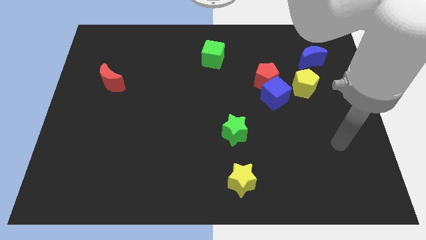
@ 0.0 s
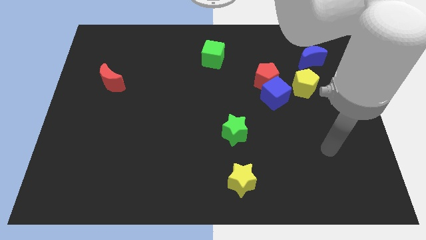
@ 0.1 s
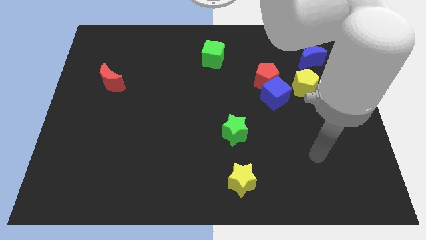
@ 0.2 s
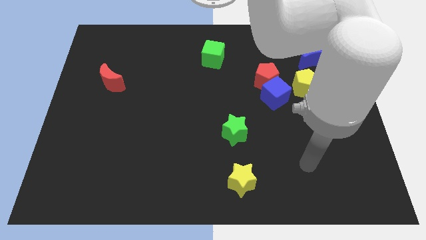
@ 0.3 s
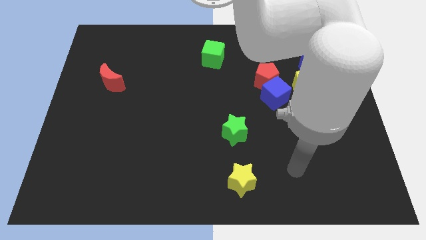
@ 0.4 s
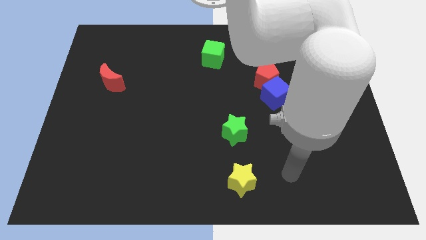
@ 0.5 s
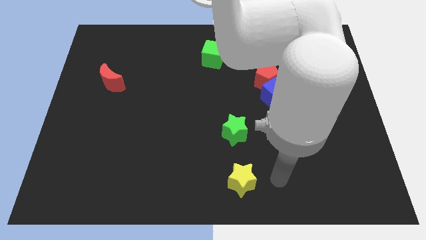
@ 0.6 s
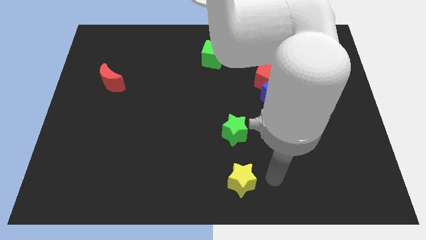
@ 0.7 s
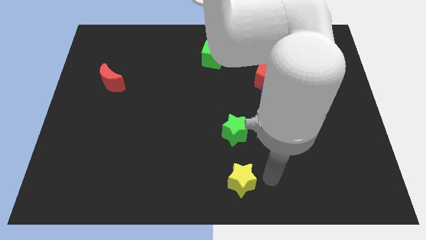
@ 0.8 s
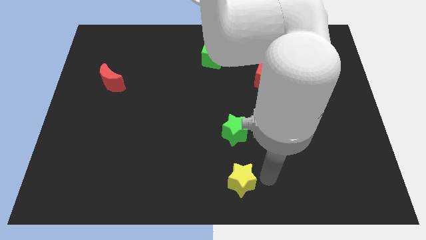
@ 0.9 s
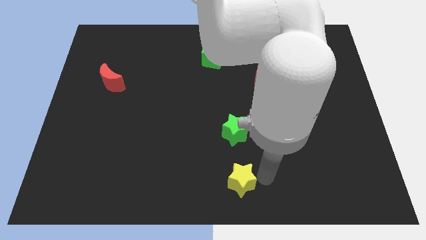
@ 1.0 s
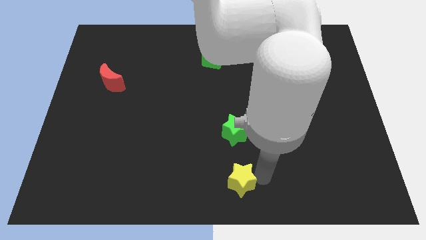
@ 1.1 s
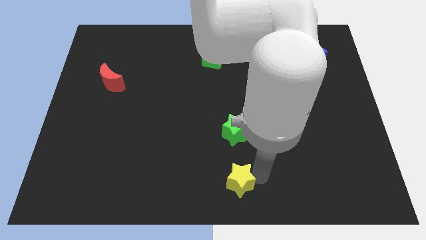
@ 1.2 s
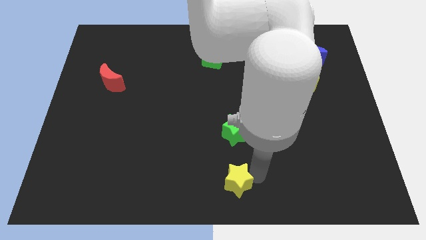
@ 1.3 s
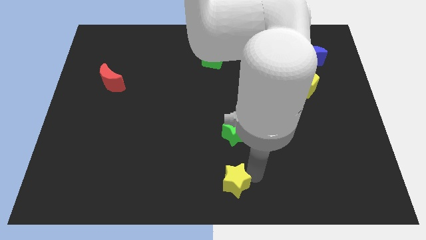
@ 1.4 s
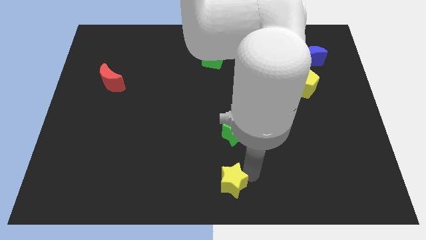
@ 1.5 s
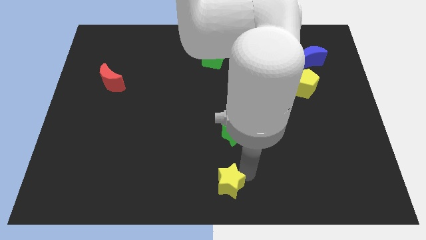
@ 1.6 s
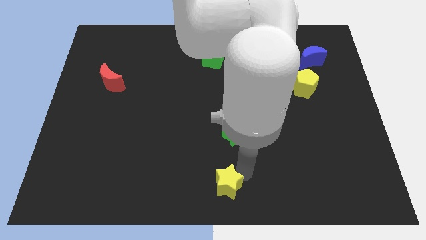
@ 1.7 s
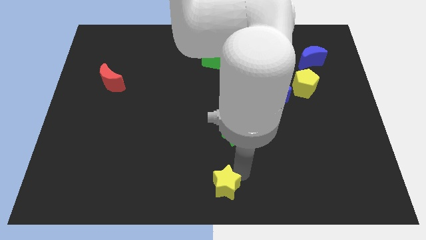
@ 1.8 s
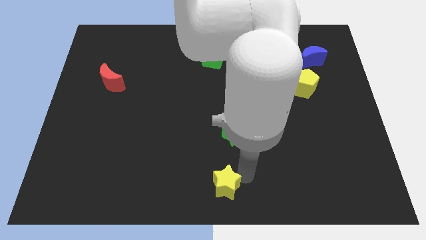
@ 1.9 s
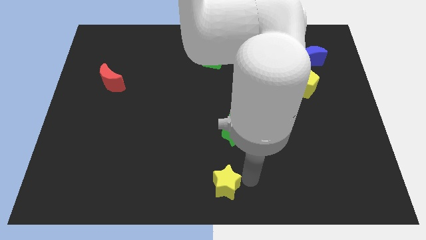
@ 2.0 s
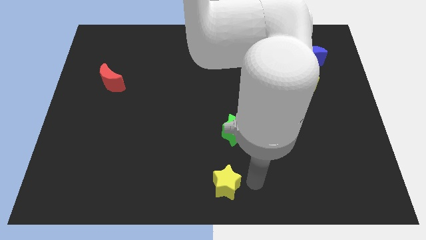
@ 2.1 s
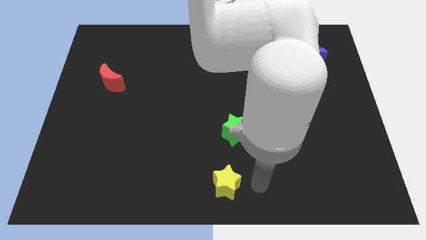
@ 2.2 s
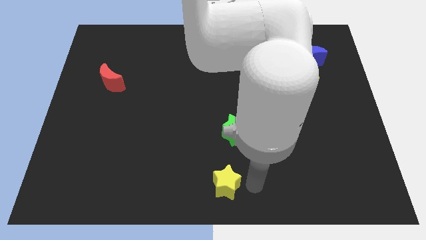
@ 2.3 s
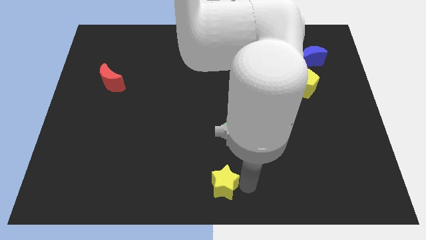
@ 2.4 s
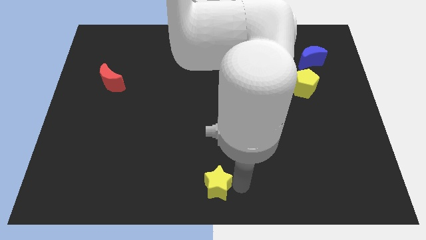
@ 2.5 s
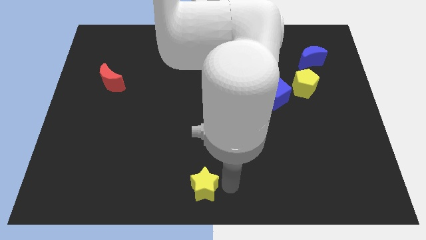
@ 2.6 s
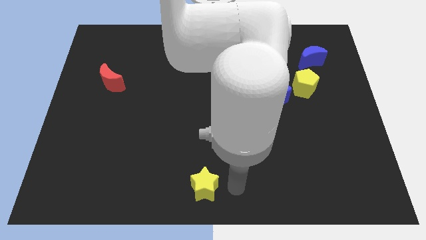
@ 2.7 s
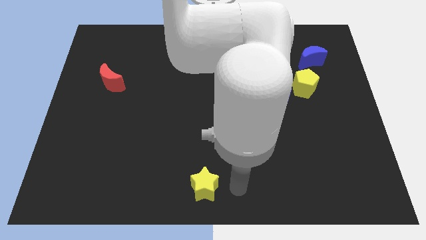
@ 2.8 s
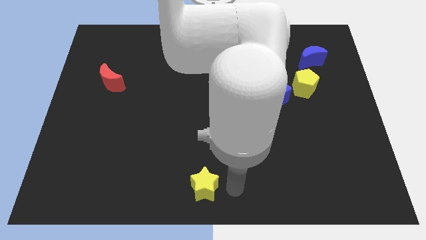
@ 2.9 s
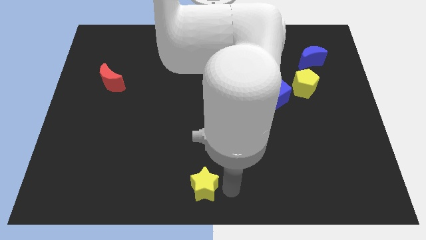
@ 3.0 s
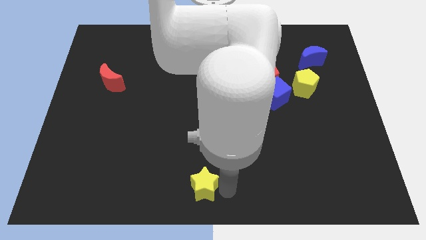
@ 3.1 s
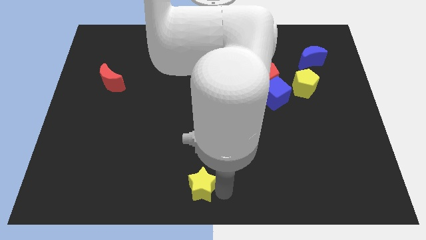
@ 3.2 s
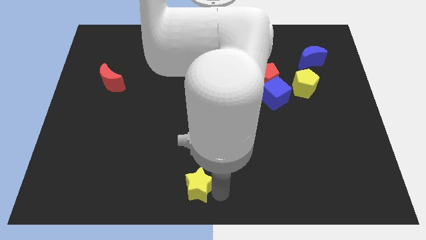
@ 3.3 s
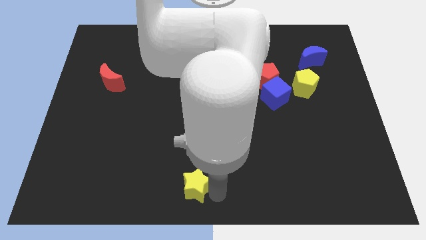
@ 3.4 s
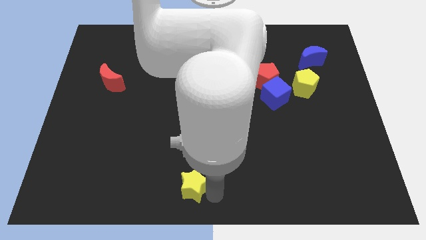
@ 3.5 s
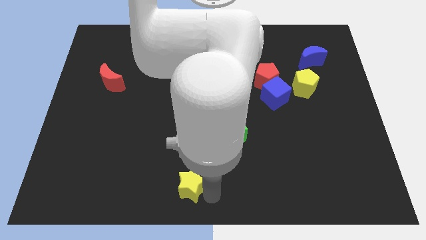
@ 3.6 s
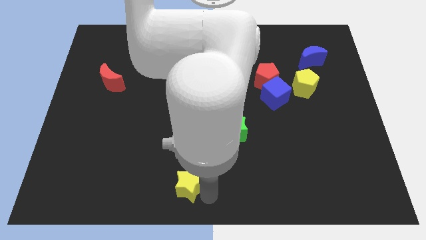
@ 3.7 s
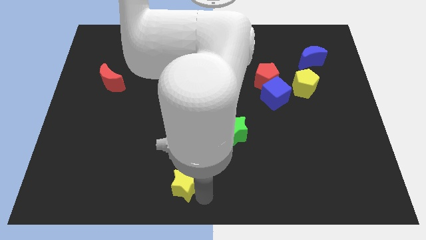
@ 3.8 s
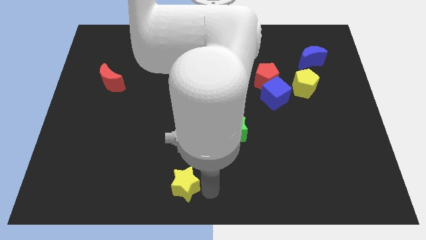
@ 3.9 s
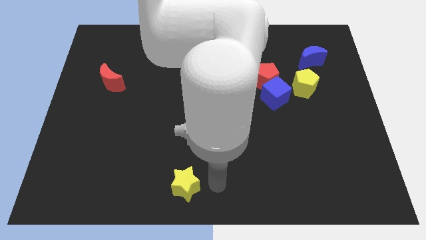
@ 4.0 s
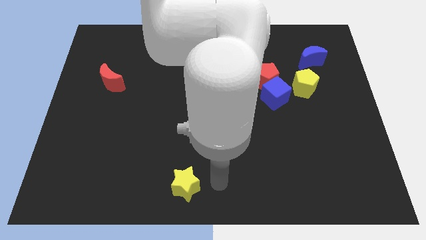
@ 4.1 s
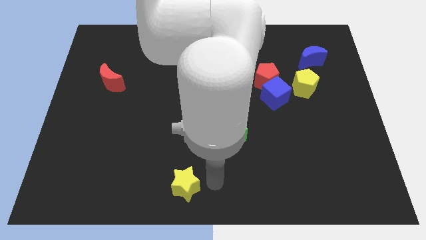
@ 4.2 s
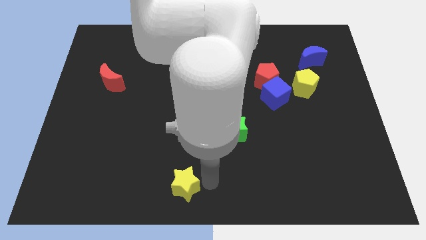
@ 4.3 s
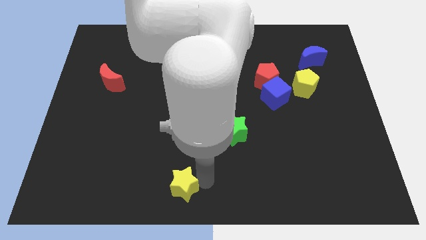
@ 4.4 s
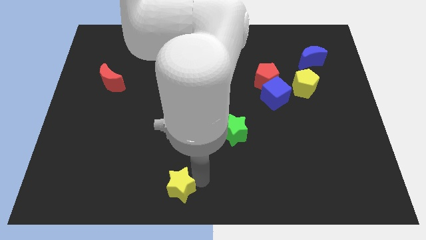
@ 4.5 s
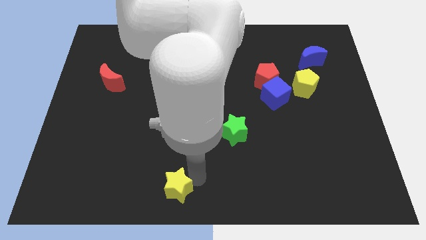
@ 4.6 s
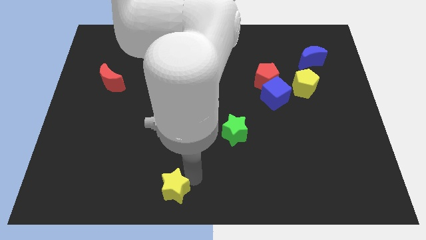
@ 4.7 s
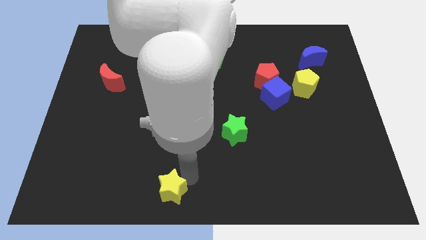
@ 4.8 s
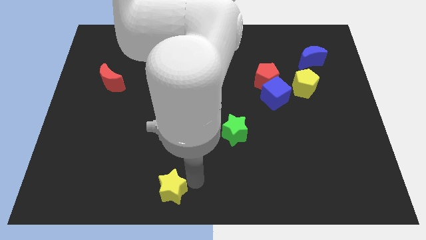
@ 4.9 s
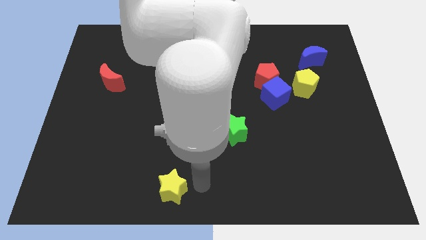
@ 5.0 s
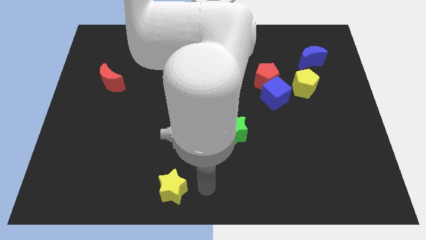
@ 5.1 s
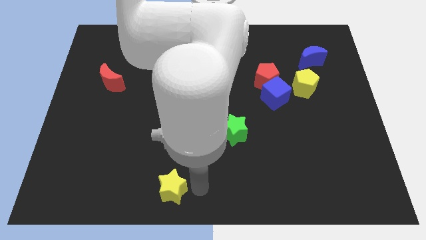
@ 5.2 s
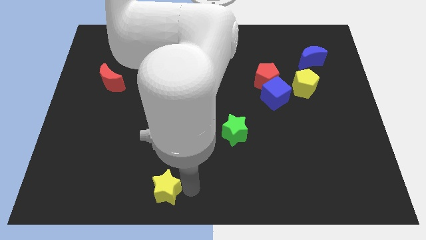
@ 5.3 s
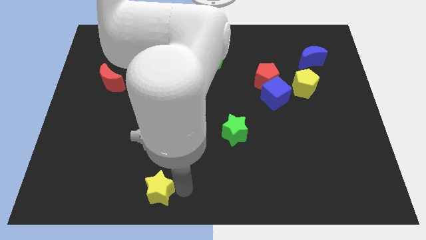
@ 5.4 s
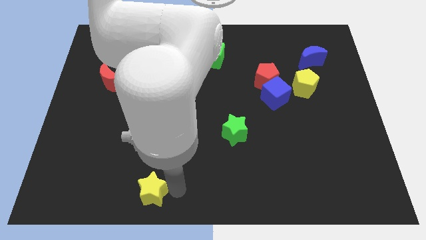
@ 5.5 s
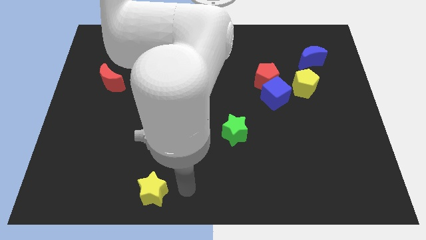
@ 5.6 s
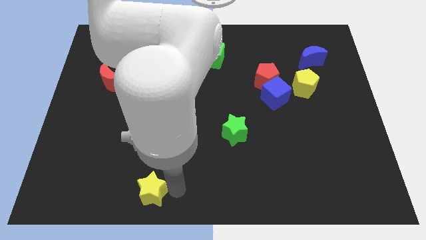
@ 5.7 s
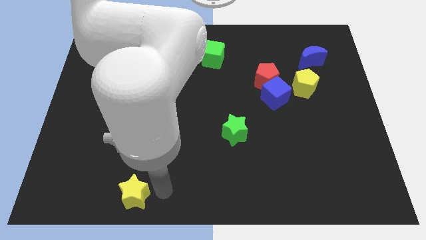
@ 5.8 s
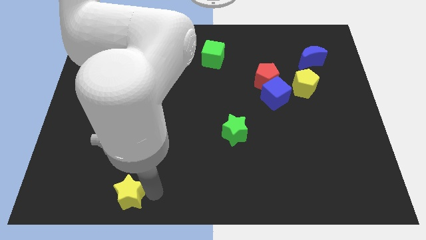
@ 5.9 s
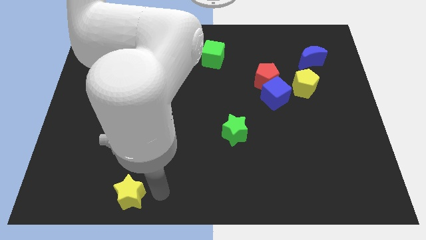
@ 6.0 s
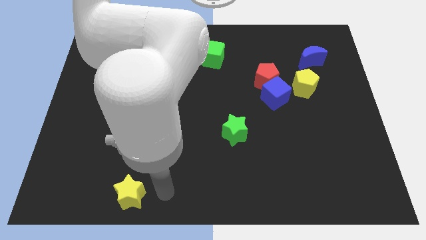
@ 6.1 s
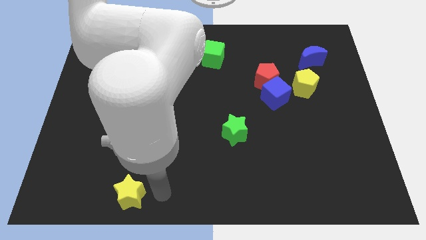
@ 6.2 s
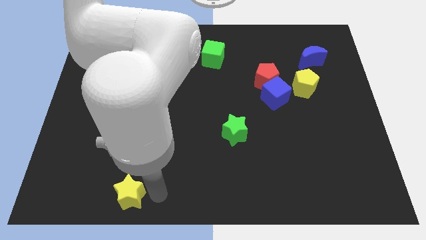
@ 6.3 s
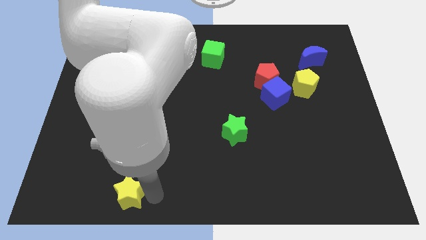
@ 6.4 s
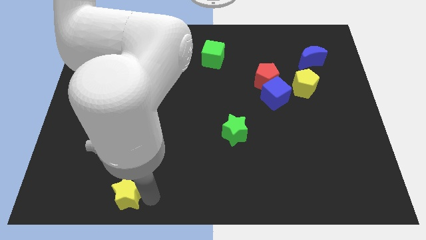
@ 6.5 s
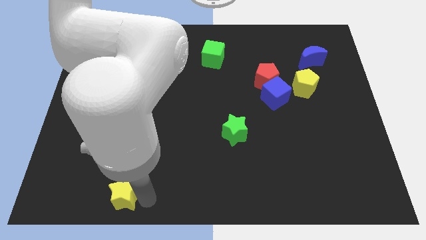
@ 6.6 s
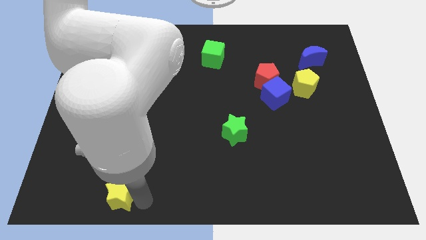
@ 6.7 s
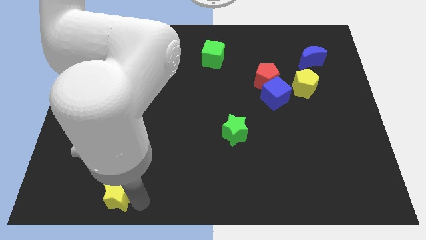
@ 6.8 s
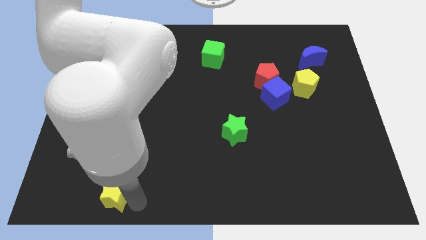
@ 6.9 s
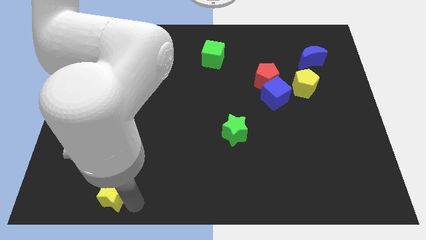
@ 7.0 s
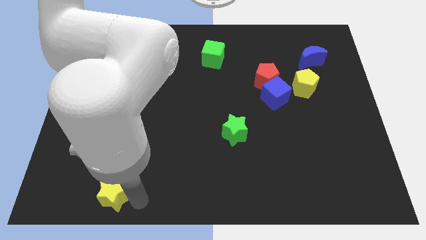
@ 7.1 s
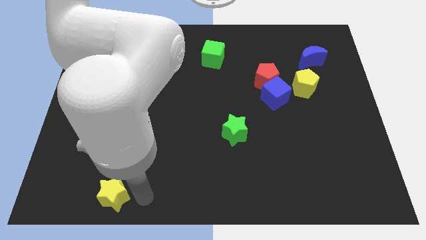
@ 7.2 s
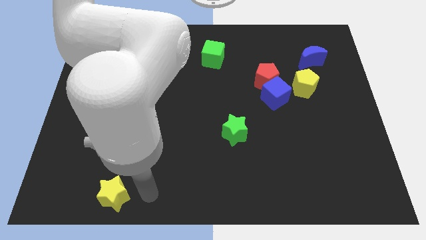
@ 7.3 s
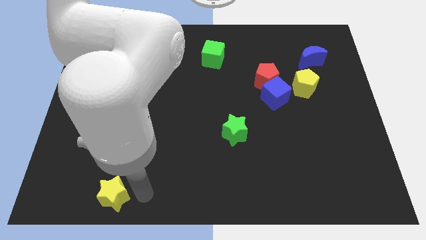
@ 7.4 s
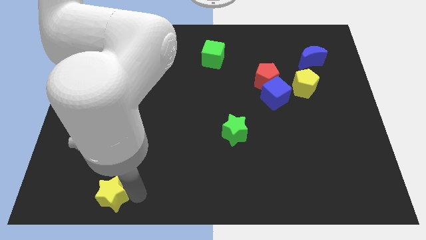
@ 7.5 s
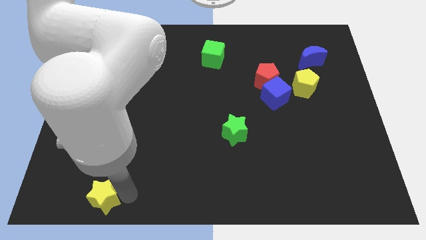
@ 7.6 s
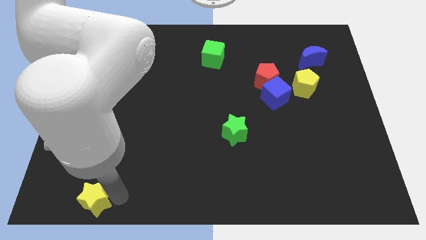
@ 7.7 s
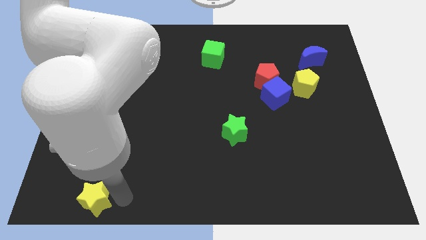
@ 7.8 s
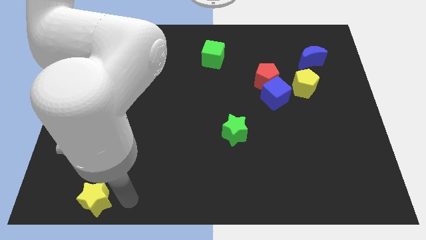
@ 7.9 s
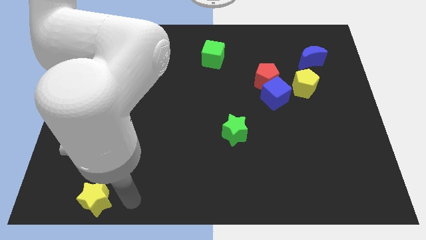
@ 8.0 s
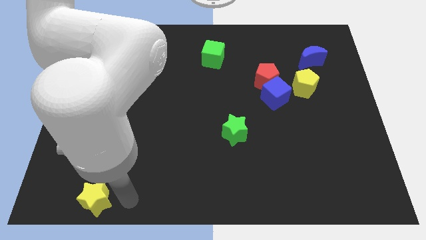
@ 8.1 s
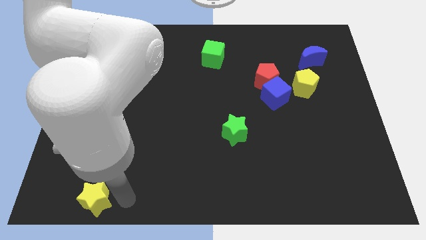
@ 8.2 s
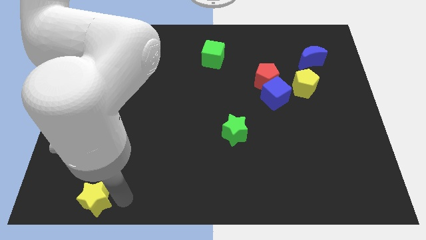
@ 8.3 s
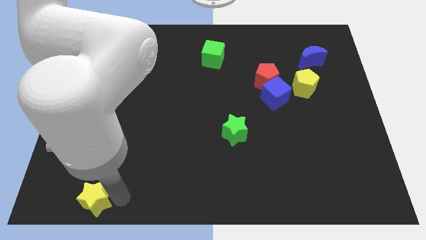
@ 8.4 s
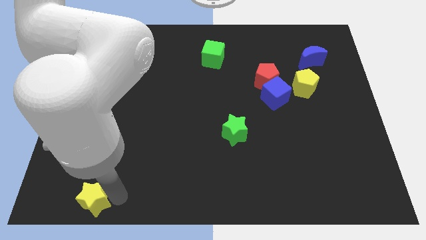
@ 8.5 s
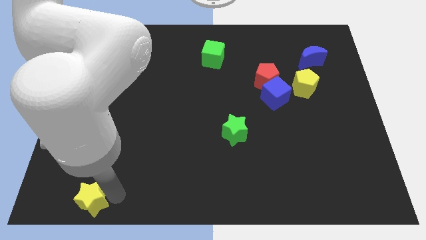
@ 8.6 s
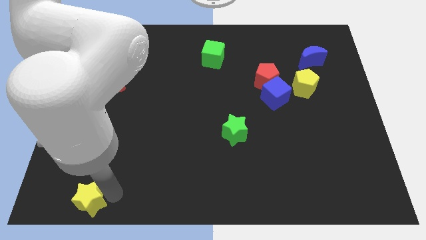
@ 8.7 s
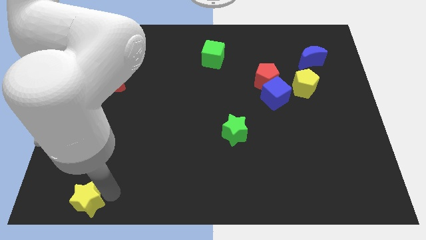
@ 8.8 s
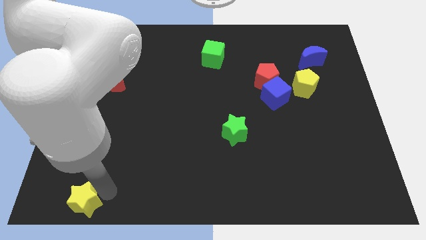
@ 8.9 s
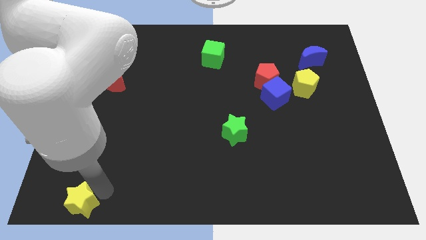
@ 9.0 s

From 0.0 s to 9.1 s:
slide the yellow star to the lower left corner
